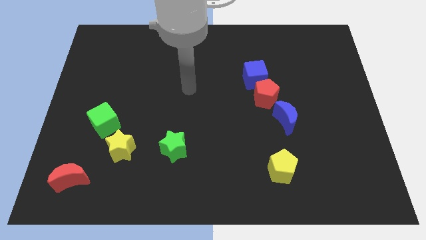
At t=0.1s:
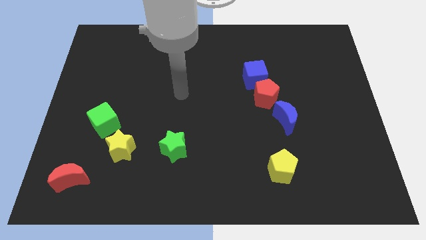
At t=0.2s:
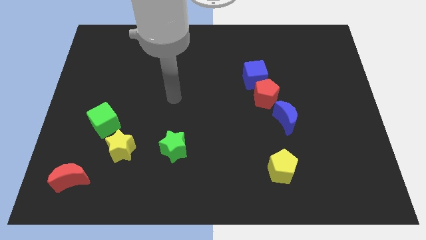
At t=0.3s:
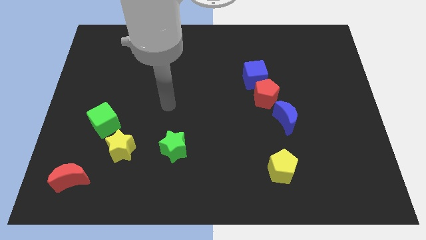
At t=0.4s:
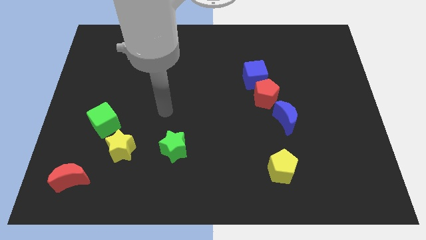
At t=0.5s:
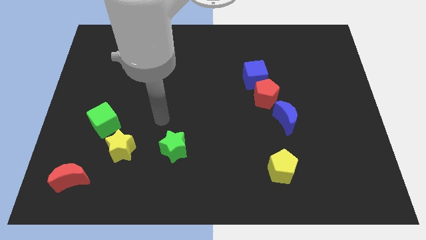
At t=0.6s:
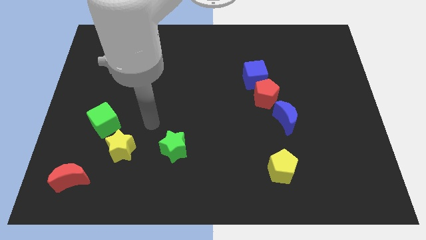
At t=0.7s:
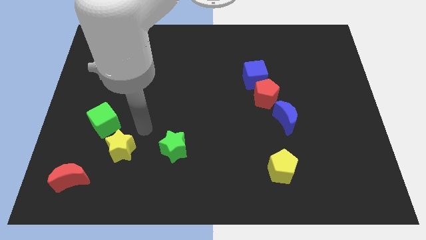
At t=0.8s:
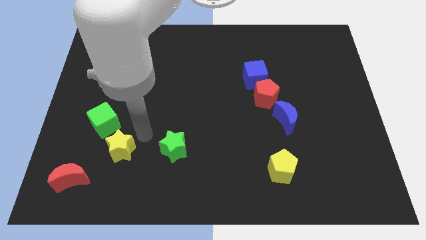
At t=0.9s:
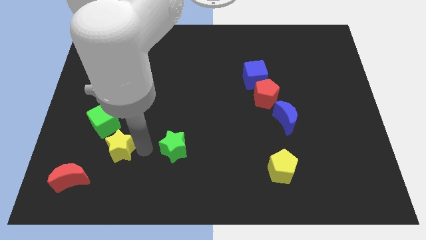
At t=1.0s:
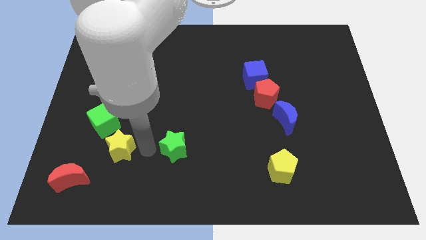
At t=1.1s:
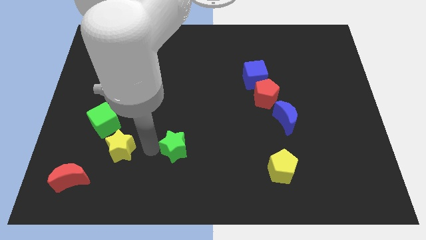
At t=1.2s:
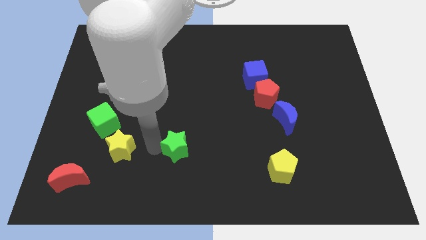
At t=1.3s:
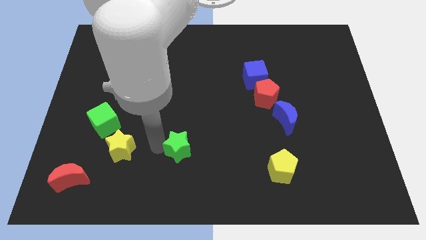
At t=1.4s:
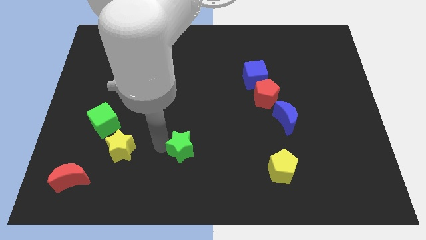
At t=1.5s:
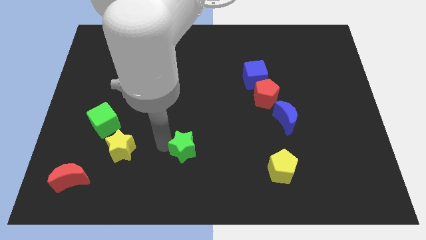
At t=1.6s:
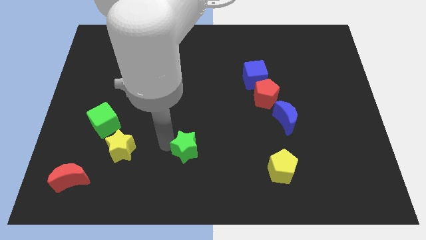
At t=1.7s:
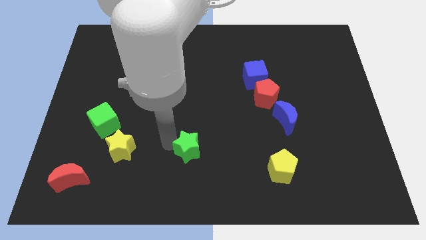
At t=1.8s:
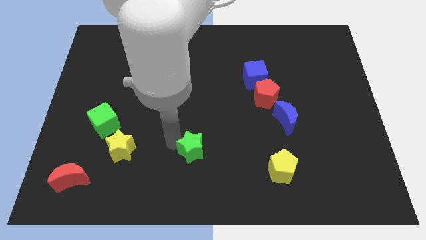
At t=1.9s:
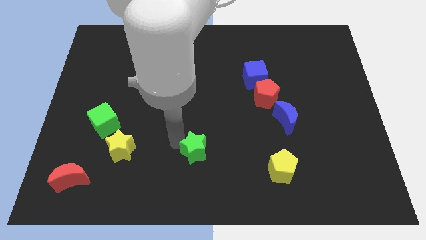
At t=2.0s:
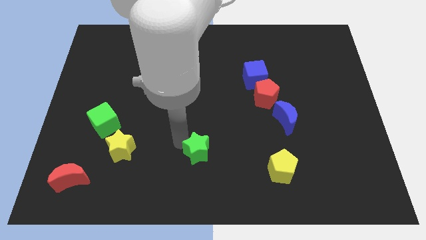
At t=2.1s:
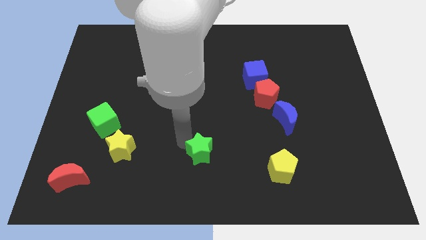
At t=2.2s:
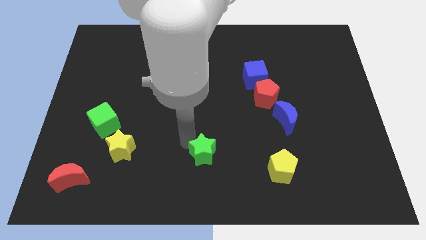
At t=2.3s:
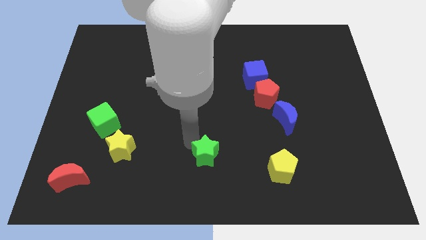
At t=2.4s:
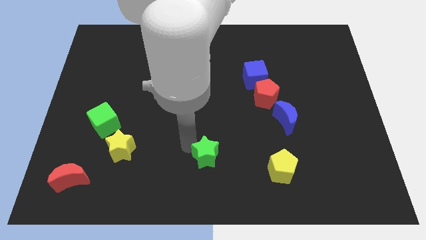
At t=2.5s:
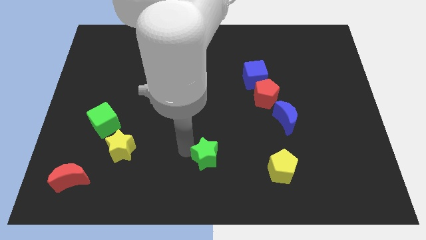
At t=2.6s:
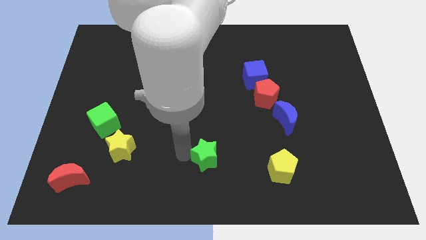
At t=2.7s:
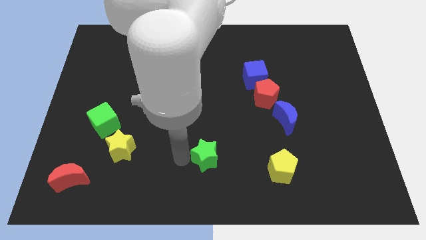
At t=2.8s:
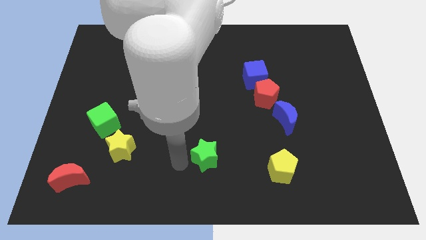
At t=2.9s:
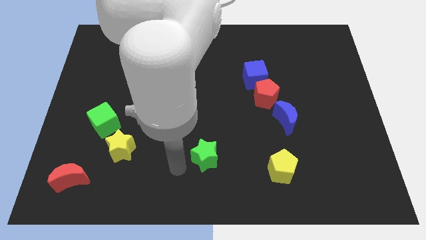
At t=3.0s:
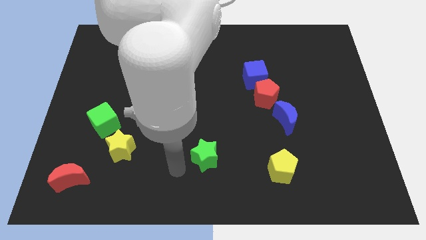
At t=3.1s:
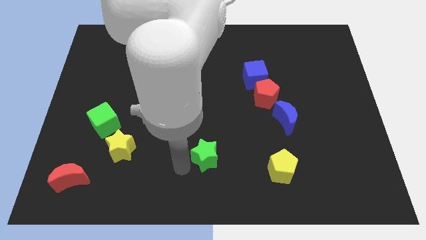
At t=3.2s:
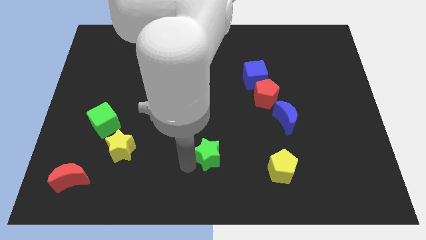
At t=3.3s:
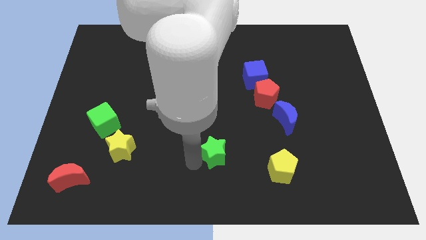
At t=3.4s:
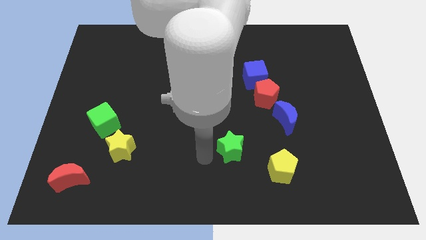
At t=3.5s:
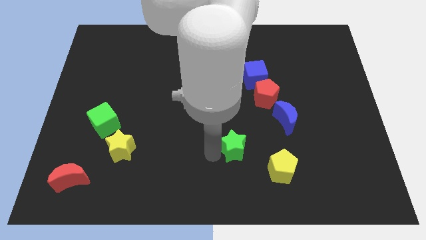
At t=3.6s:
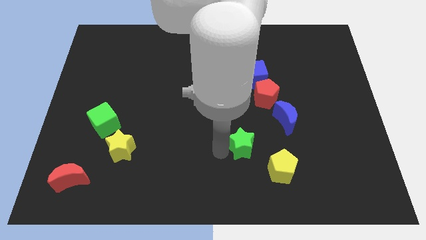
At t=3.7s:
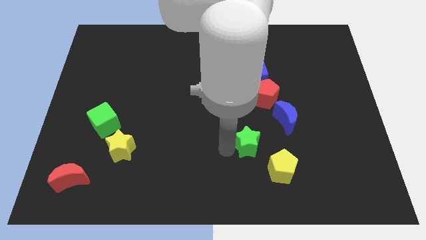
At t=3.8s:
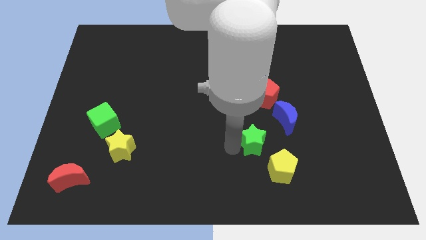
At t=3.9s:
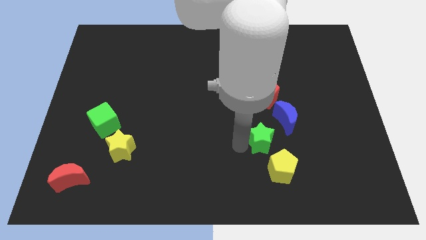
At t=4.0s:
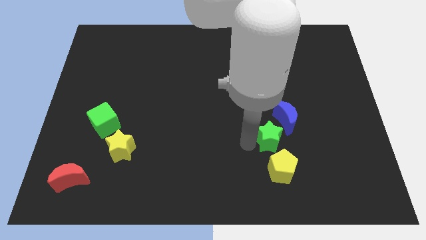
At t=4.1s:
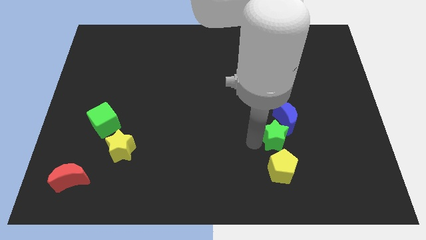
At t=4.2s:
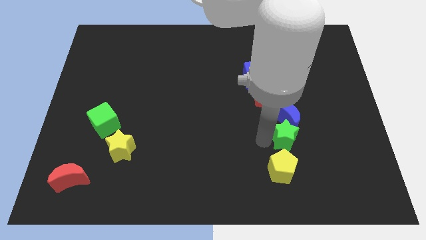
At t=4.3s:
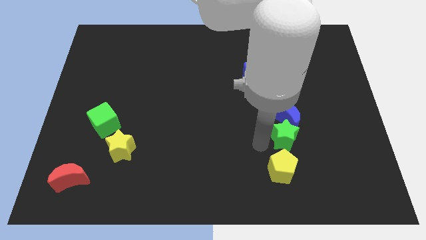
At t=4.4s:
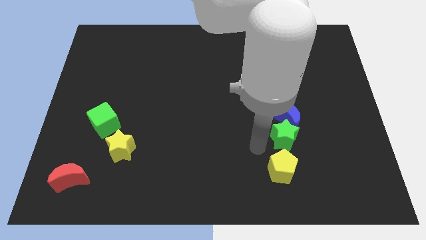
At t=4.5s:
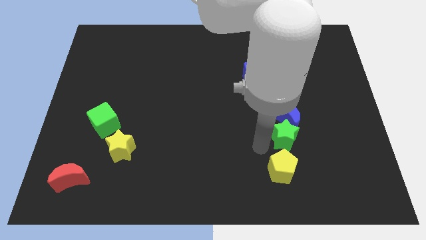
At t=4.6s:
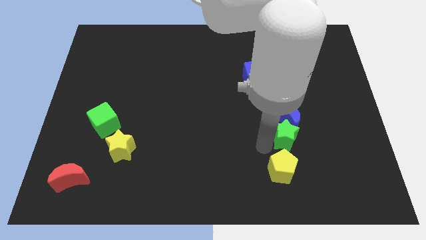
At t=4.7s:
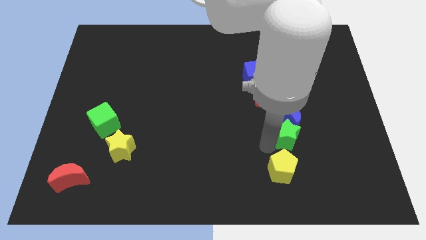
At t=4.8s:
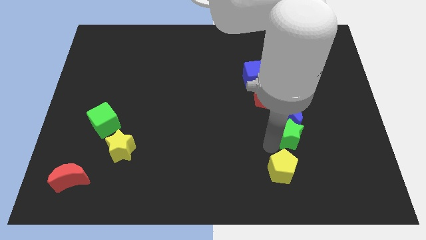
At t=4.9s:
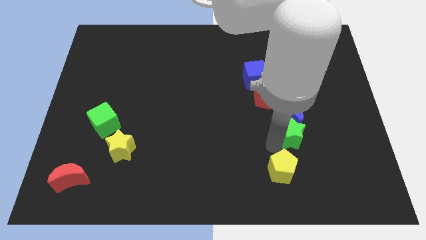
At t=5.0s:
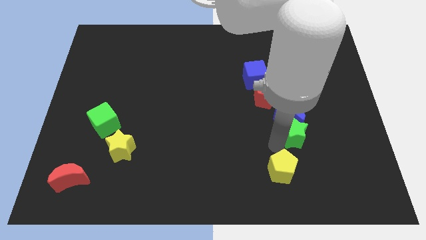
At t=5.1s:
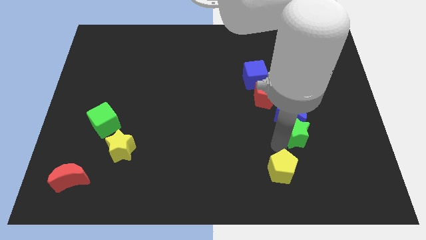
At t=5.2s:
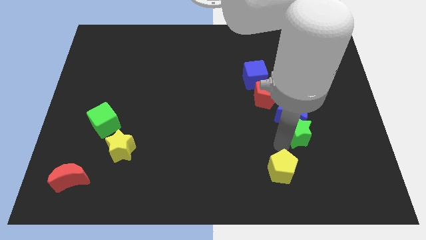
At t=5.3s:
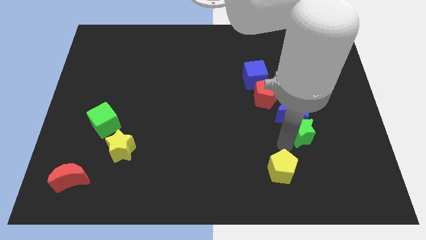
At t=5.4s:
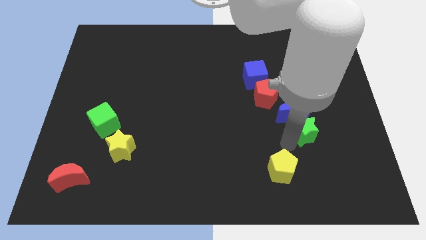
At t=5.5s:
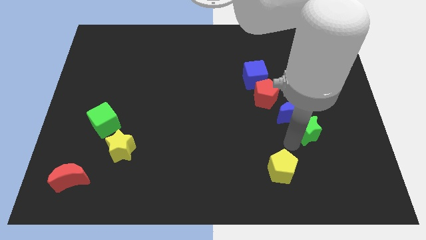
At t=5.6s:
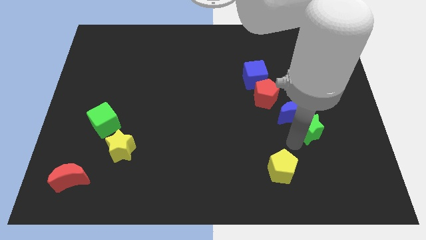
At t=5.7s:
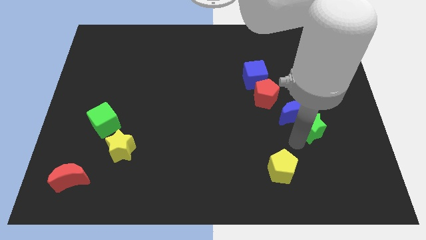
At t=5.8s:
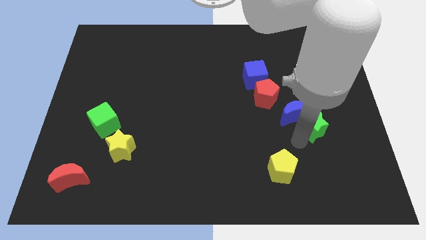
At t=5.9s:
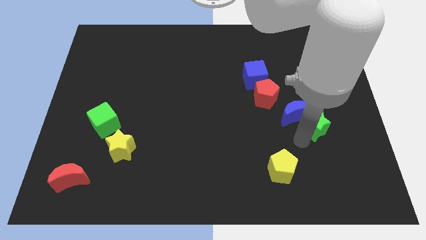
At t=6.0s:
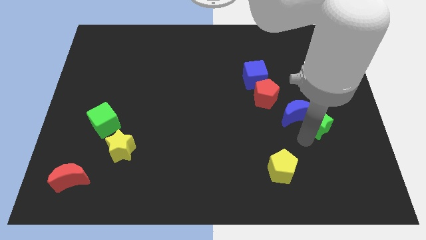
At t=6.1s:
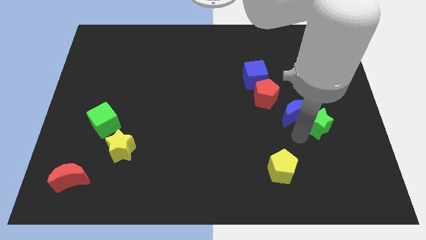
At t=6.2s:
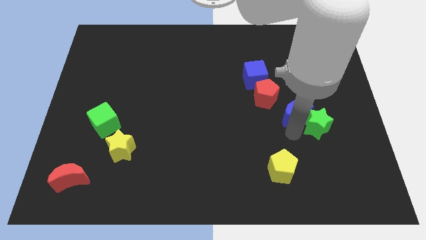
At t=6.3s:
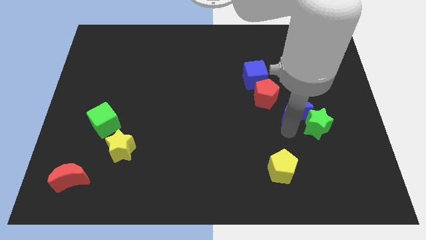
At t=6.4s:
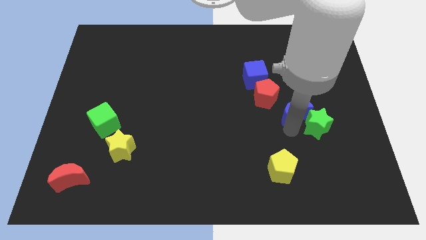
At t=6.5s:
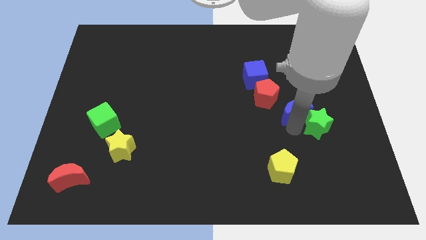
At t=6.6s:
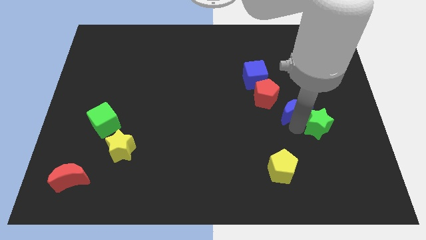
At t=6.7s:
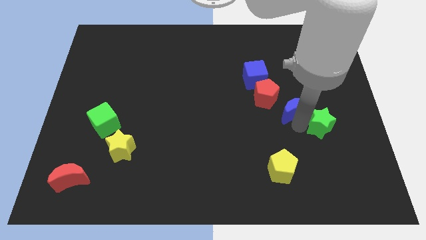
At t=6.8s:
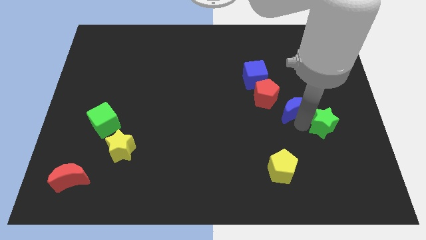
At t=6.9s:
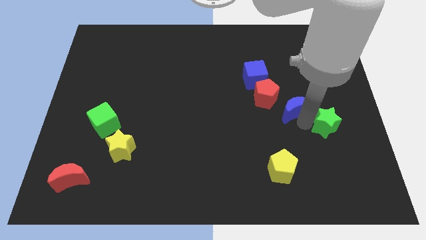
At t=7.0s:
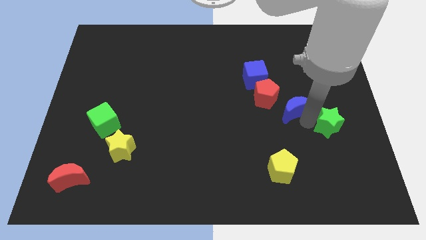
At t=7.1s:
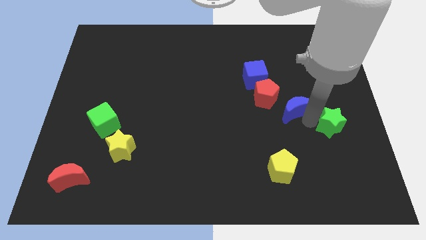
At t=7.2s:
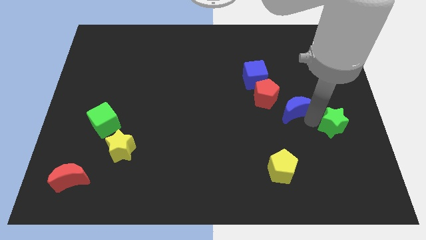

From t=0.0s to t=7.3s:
move the green star to the center right
